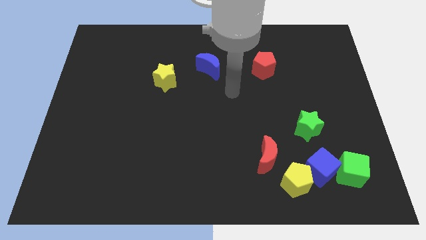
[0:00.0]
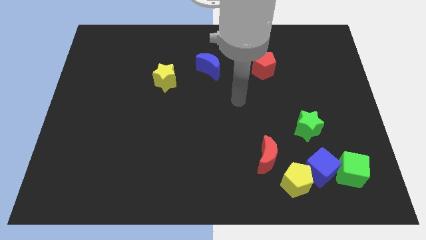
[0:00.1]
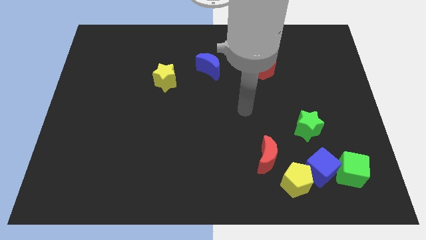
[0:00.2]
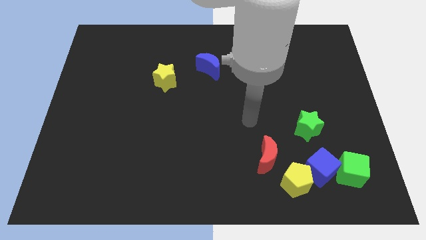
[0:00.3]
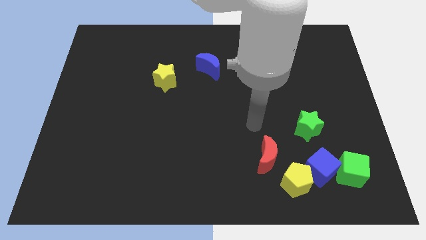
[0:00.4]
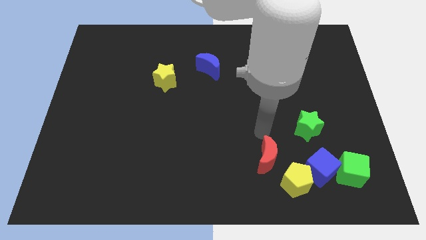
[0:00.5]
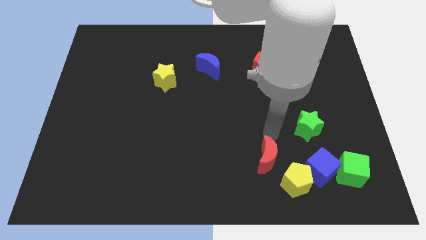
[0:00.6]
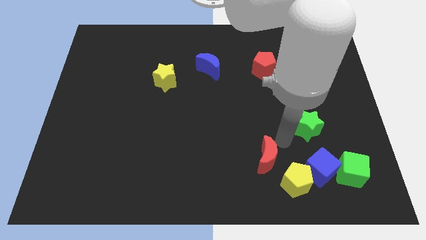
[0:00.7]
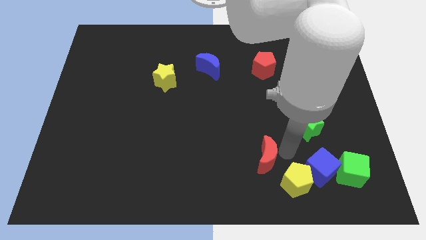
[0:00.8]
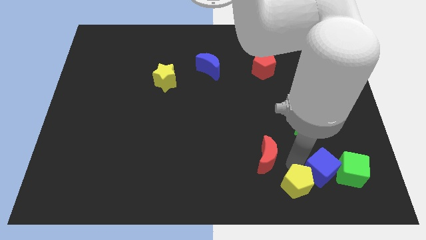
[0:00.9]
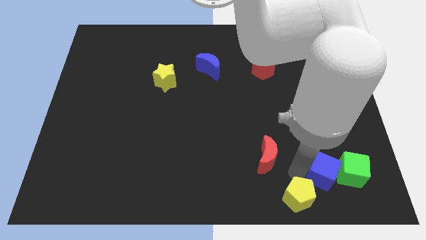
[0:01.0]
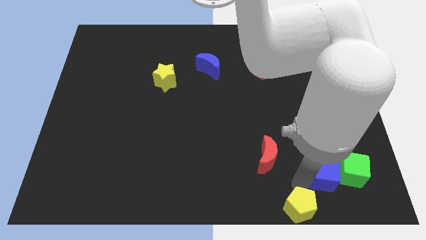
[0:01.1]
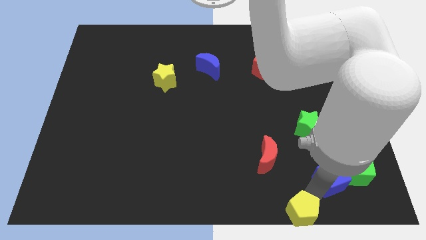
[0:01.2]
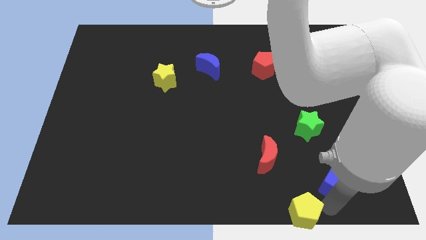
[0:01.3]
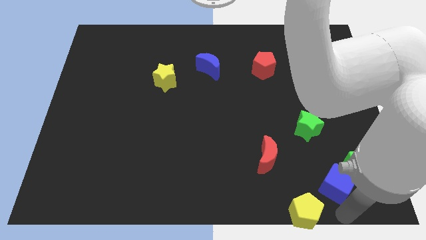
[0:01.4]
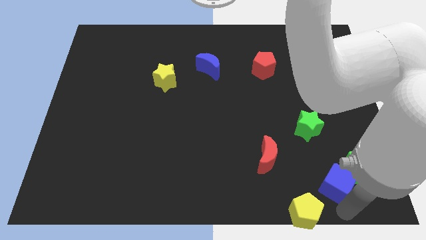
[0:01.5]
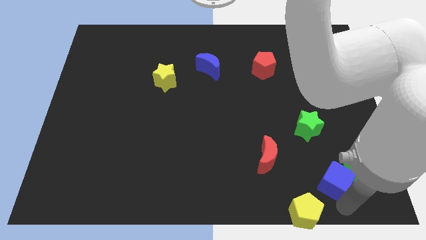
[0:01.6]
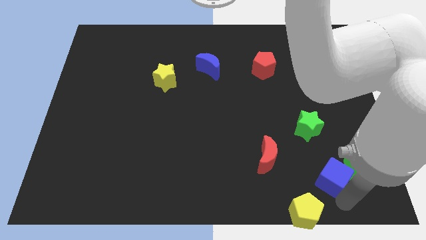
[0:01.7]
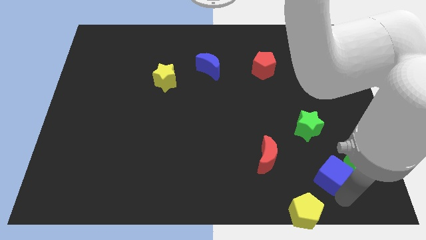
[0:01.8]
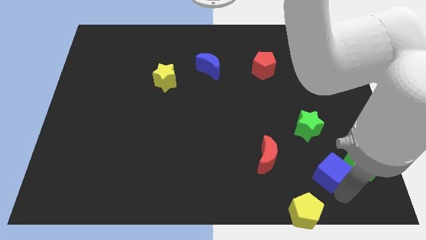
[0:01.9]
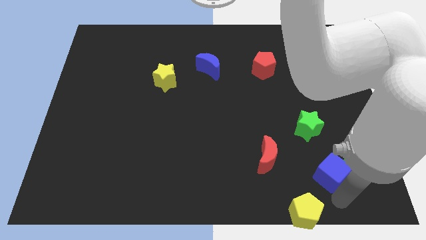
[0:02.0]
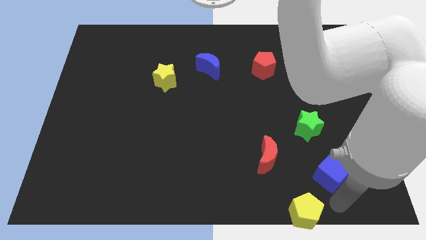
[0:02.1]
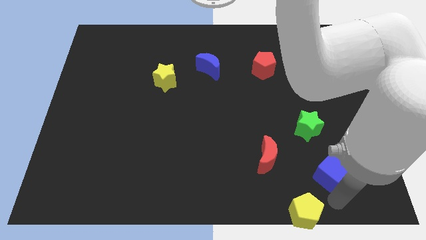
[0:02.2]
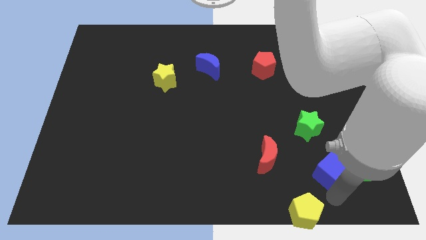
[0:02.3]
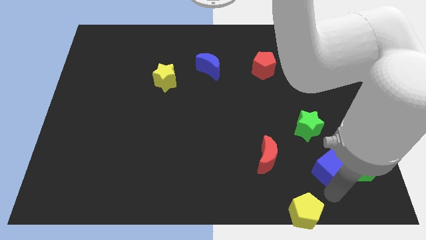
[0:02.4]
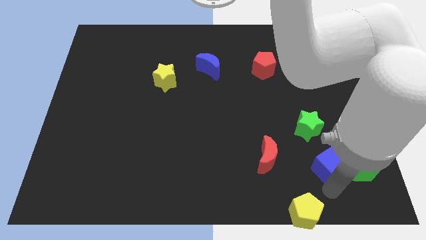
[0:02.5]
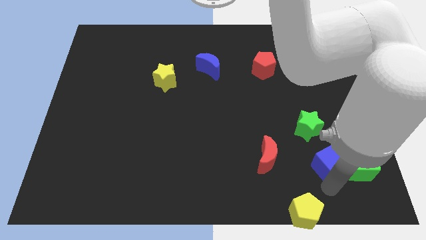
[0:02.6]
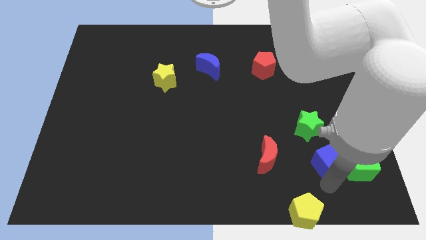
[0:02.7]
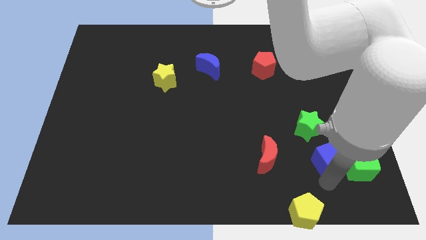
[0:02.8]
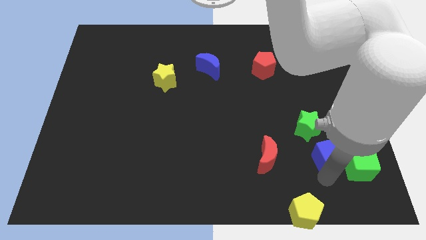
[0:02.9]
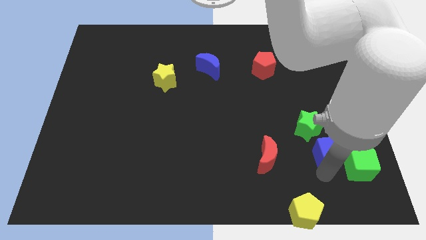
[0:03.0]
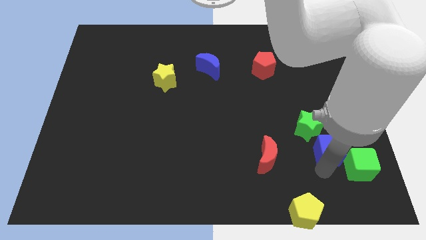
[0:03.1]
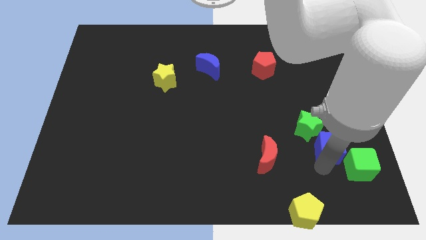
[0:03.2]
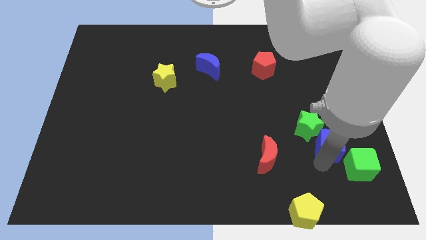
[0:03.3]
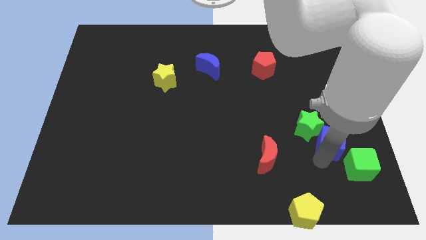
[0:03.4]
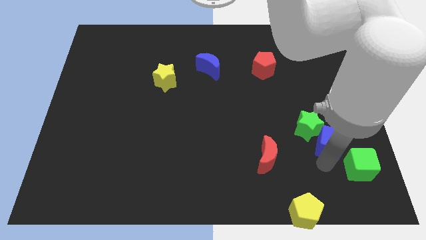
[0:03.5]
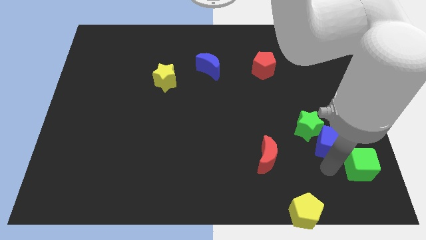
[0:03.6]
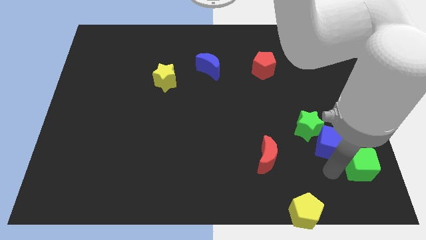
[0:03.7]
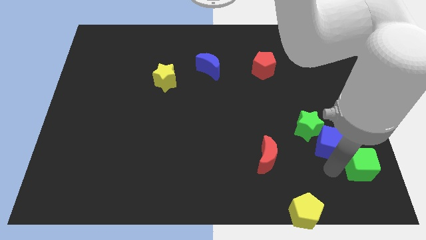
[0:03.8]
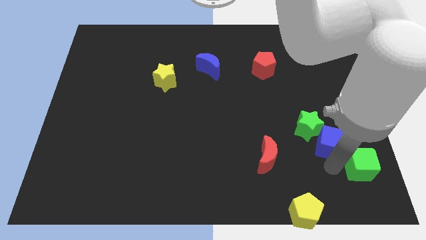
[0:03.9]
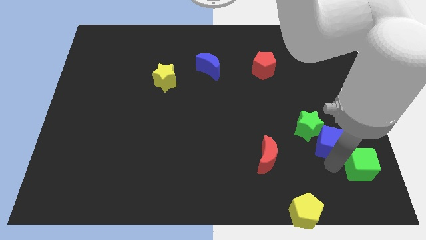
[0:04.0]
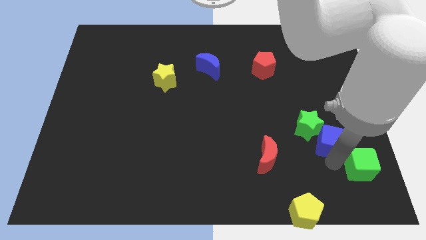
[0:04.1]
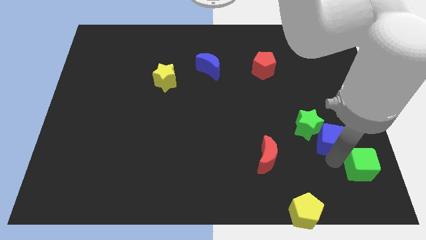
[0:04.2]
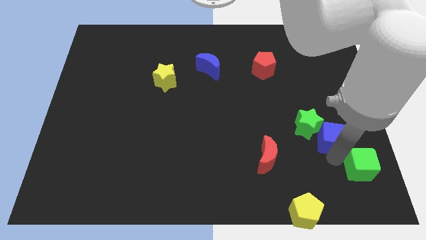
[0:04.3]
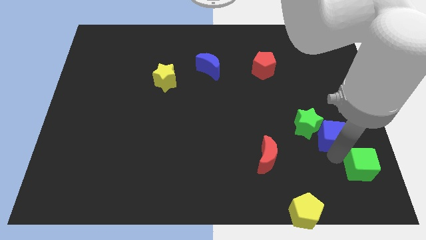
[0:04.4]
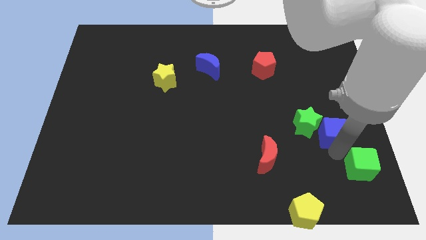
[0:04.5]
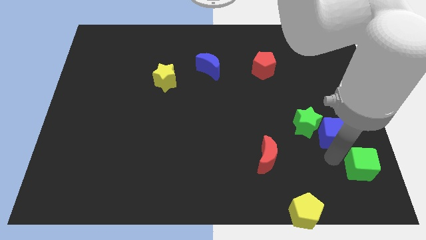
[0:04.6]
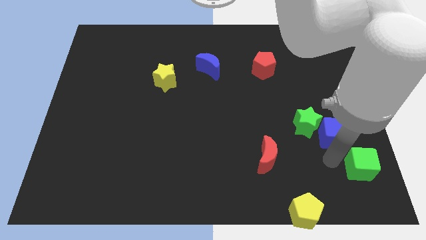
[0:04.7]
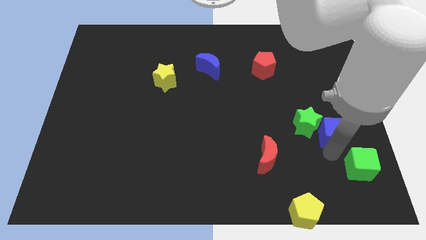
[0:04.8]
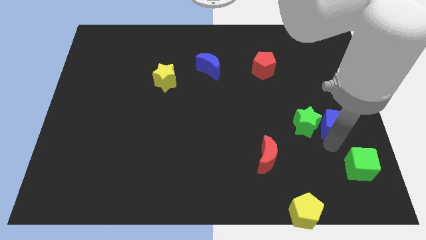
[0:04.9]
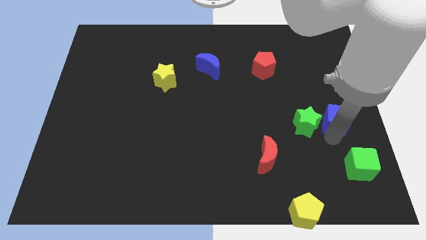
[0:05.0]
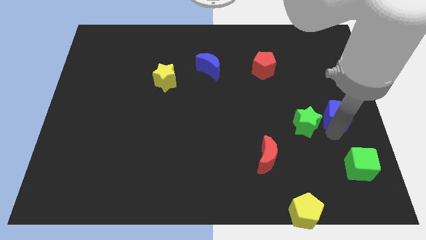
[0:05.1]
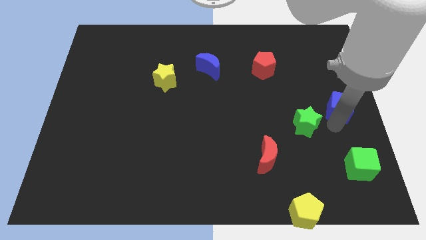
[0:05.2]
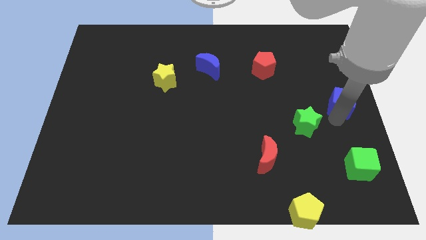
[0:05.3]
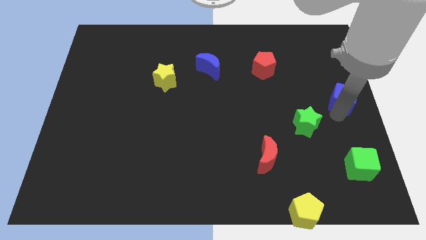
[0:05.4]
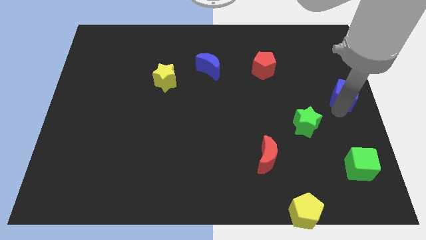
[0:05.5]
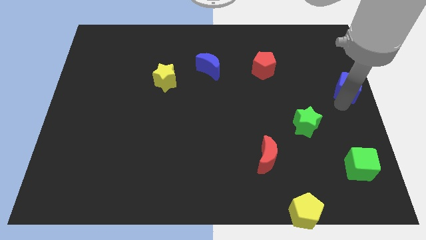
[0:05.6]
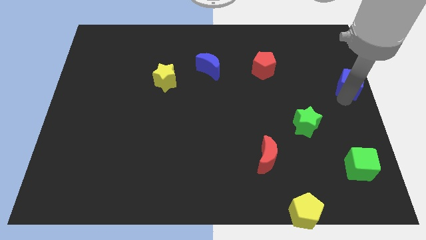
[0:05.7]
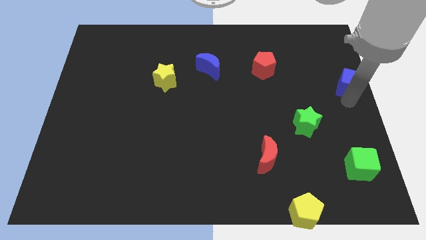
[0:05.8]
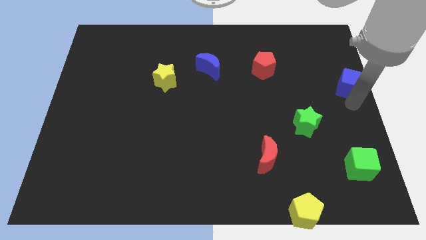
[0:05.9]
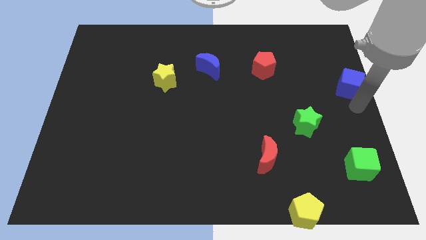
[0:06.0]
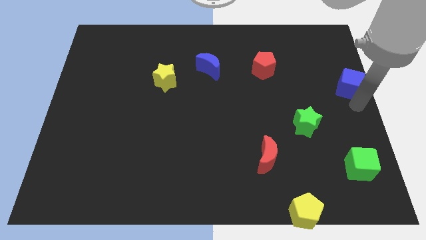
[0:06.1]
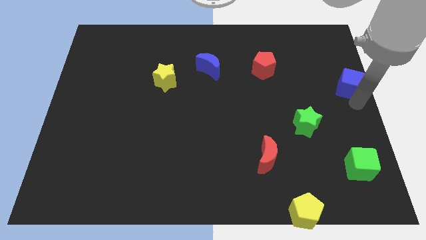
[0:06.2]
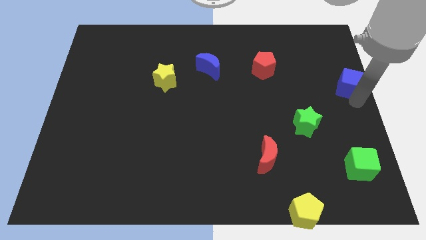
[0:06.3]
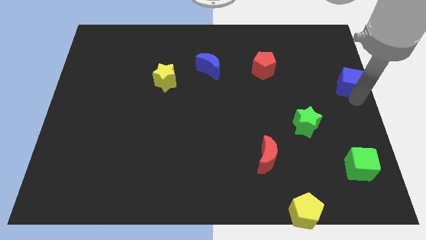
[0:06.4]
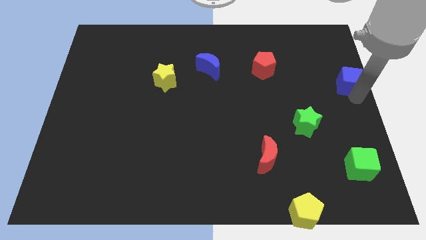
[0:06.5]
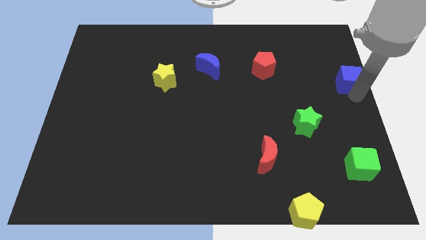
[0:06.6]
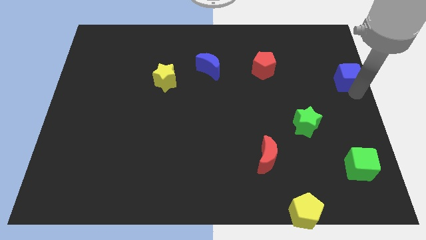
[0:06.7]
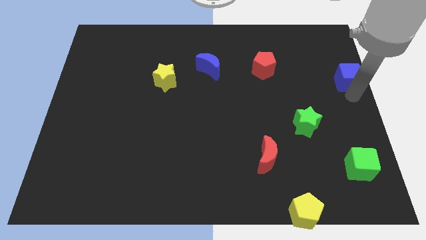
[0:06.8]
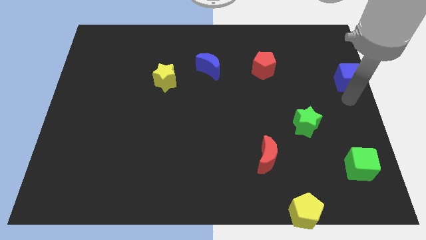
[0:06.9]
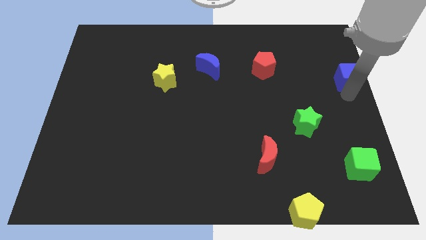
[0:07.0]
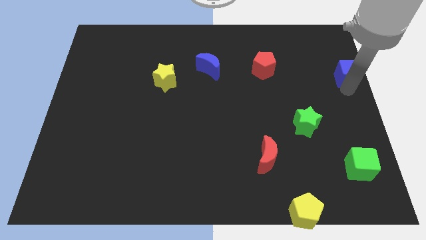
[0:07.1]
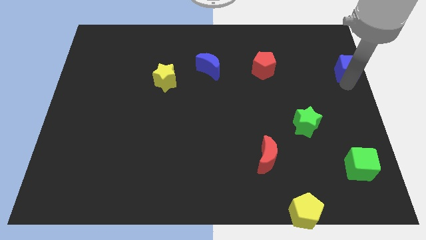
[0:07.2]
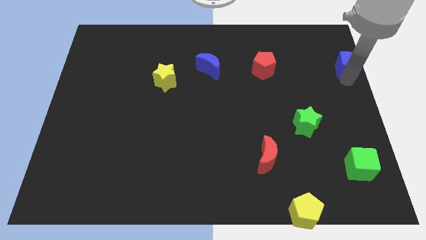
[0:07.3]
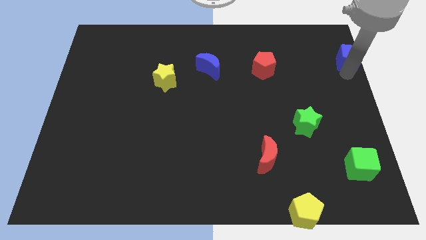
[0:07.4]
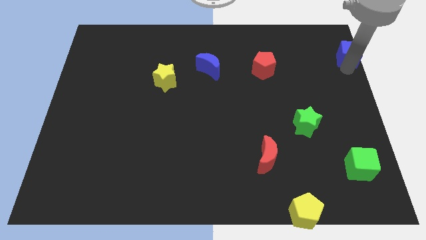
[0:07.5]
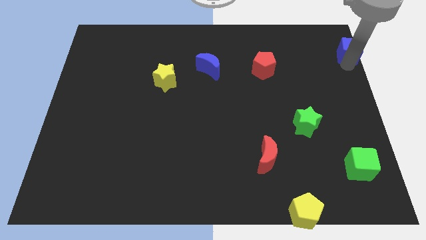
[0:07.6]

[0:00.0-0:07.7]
put the blue cube to the top right of the board
